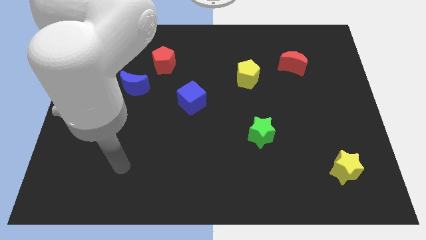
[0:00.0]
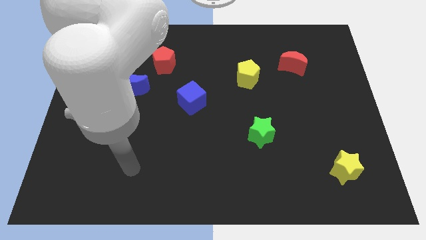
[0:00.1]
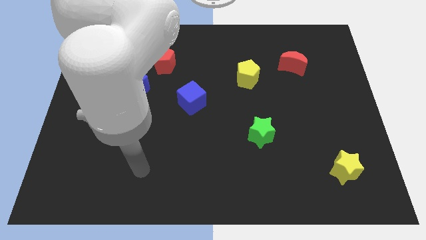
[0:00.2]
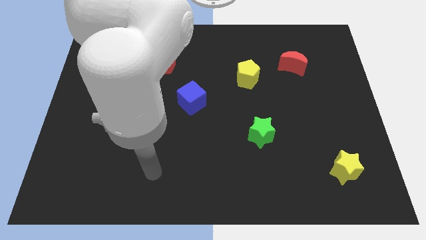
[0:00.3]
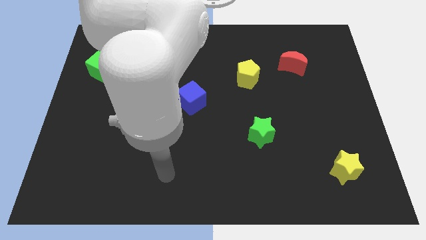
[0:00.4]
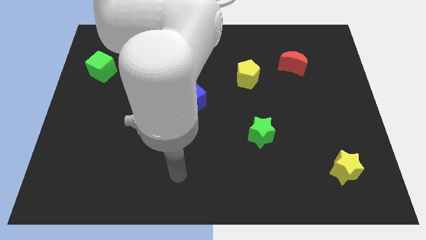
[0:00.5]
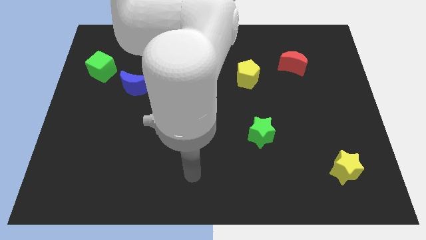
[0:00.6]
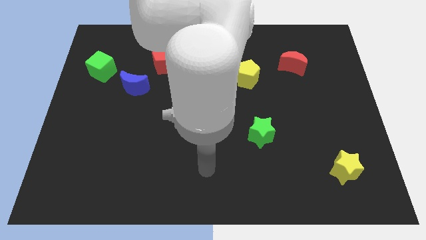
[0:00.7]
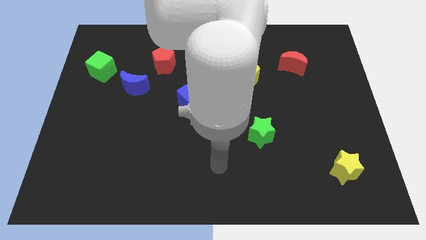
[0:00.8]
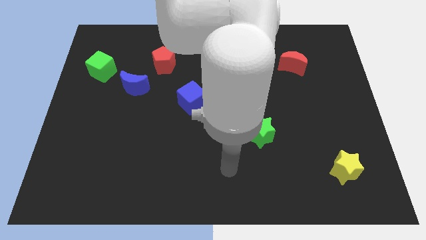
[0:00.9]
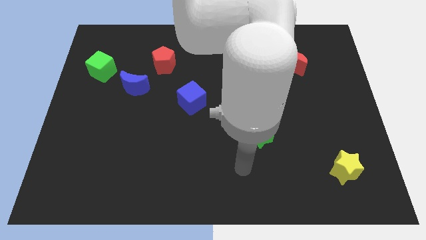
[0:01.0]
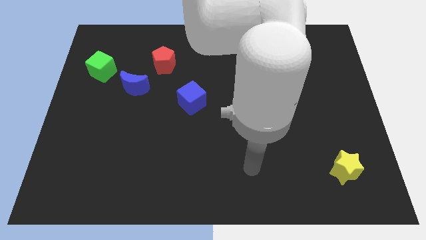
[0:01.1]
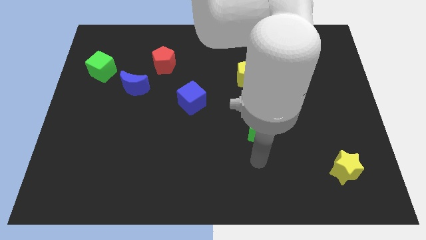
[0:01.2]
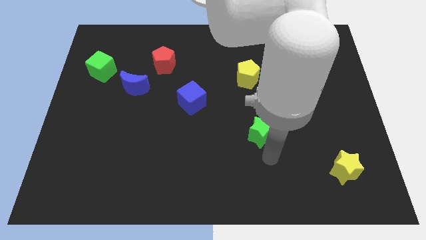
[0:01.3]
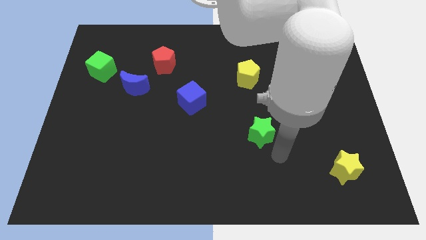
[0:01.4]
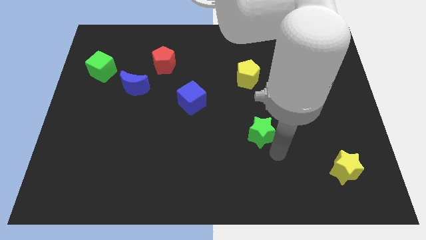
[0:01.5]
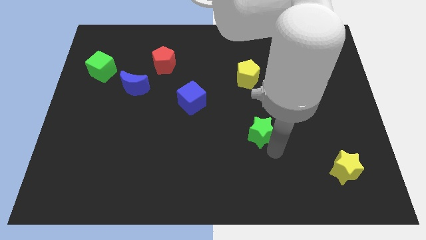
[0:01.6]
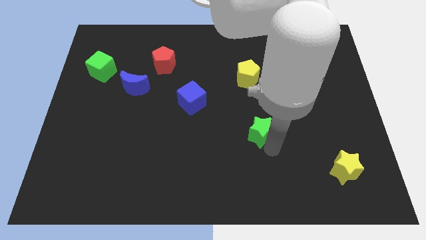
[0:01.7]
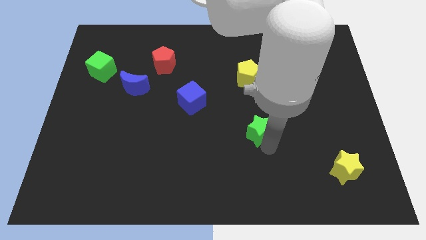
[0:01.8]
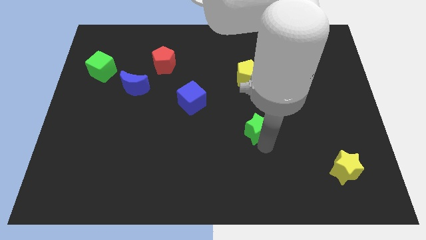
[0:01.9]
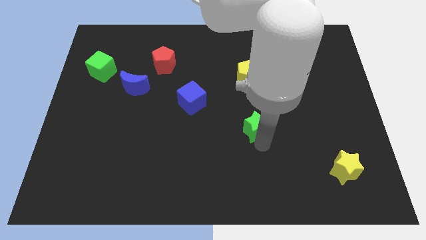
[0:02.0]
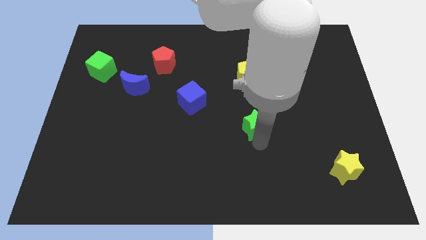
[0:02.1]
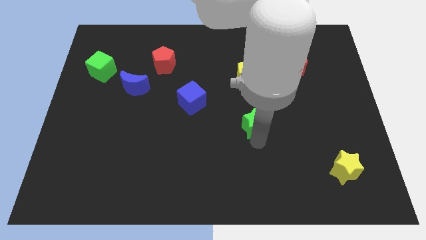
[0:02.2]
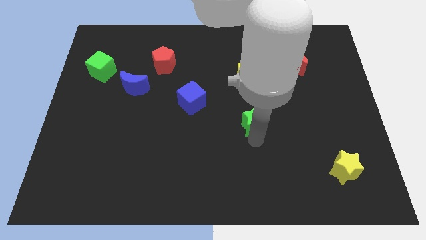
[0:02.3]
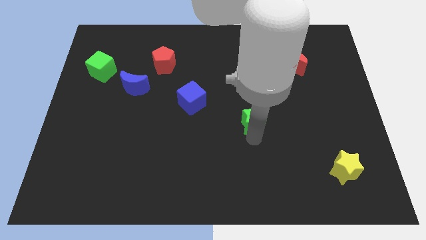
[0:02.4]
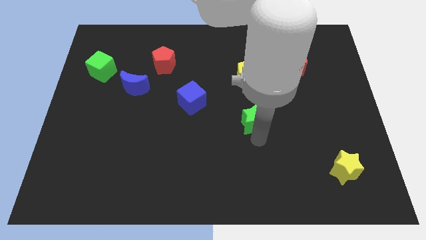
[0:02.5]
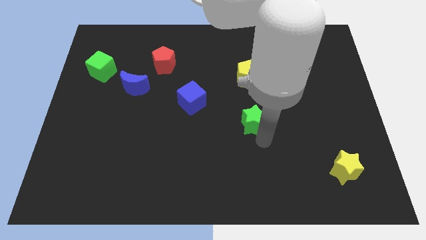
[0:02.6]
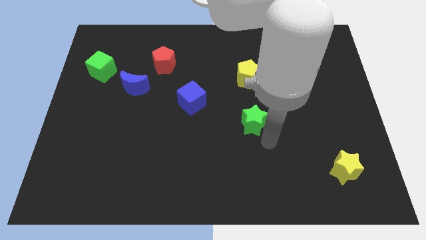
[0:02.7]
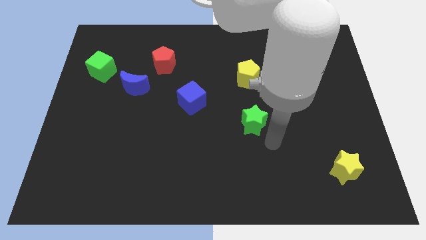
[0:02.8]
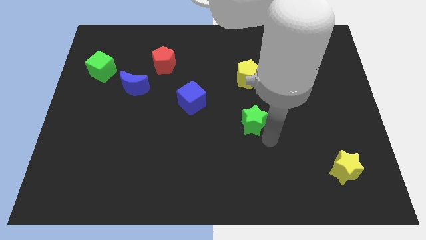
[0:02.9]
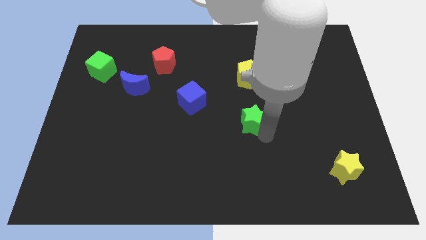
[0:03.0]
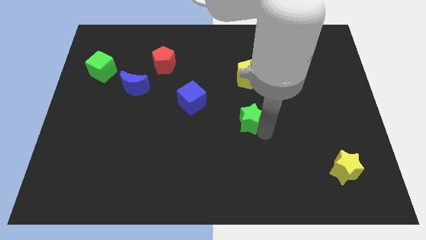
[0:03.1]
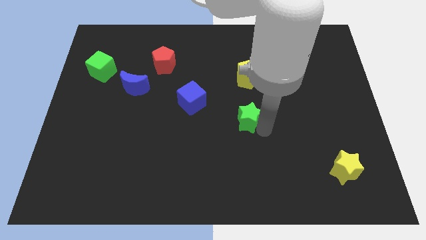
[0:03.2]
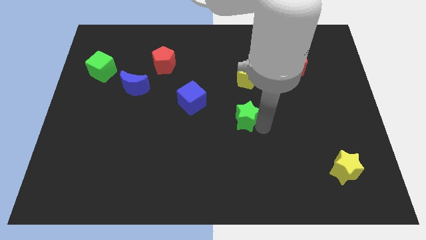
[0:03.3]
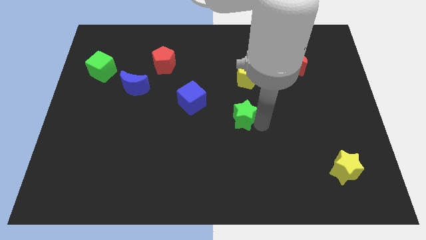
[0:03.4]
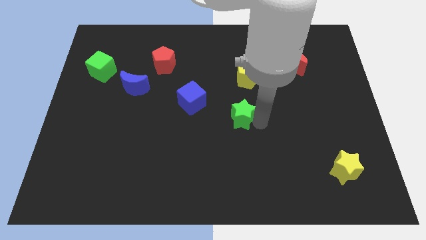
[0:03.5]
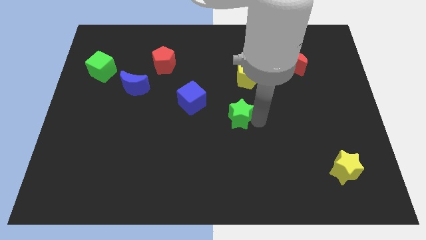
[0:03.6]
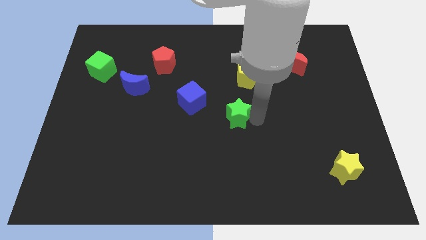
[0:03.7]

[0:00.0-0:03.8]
push the green star up and then to the left a little bit

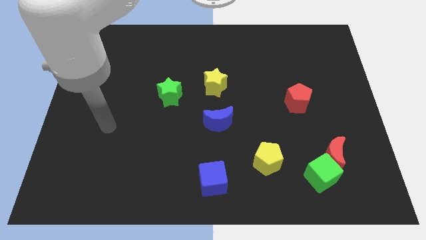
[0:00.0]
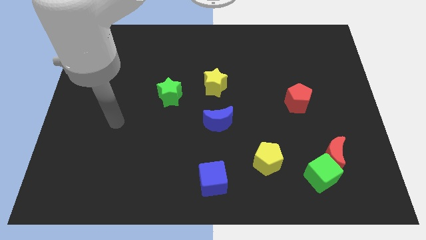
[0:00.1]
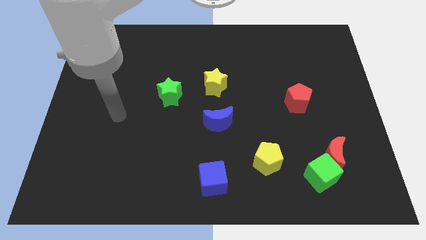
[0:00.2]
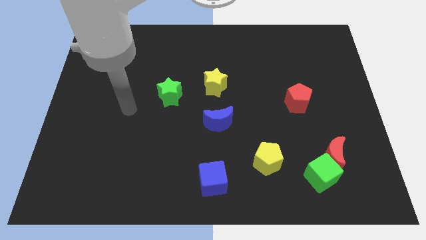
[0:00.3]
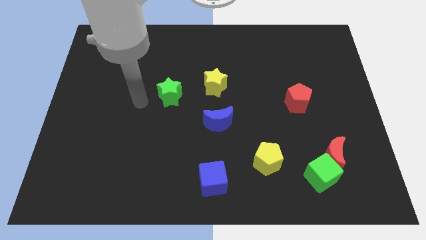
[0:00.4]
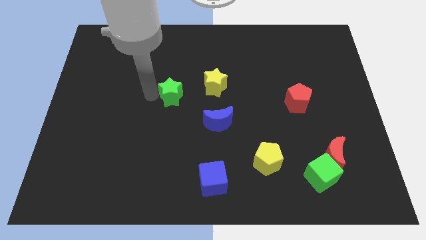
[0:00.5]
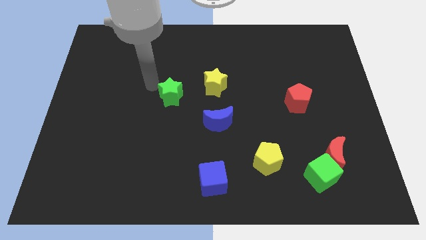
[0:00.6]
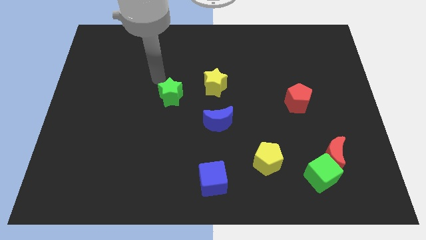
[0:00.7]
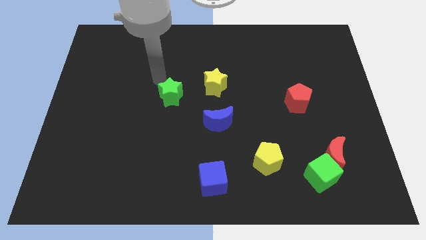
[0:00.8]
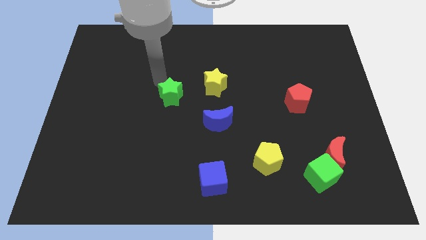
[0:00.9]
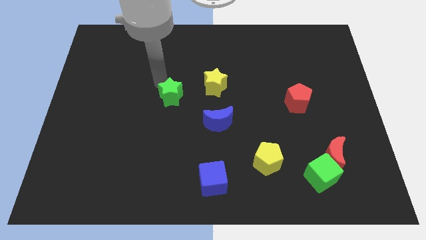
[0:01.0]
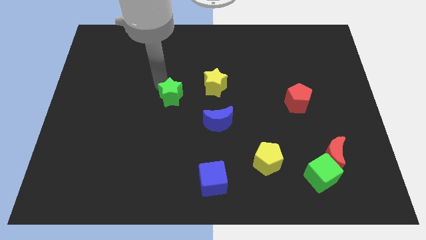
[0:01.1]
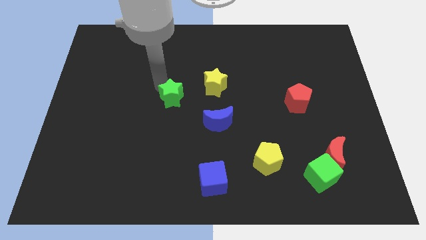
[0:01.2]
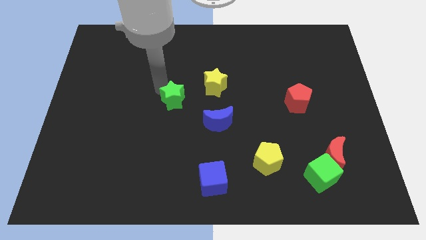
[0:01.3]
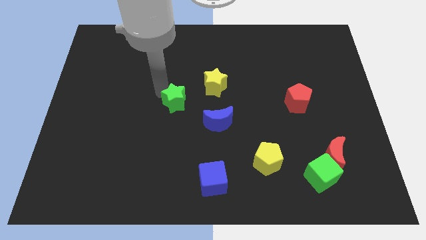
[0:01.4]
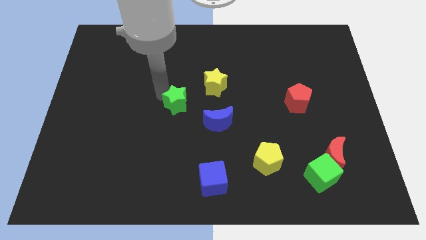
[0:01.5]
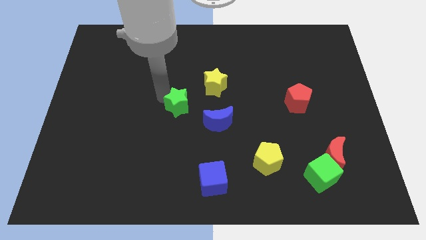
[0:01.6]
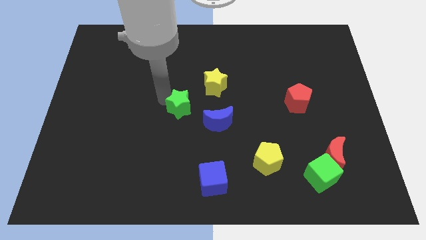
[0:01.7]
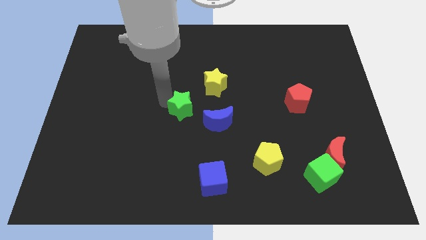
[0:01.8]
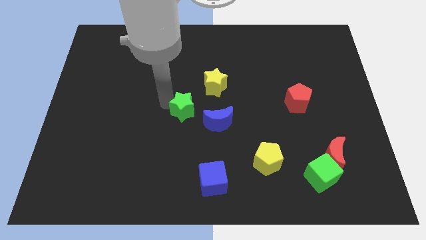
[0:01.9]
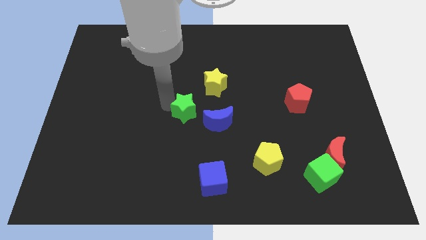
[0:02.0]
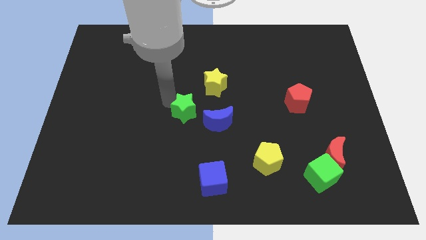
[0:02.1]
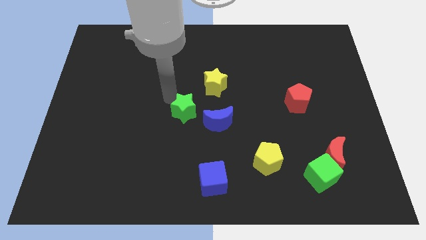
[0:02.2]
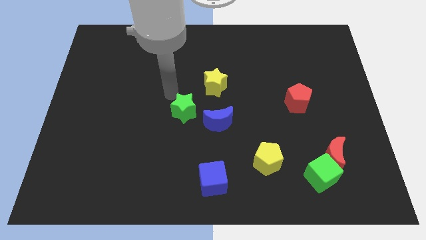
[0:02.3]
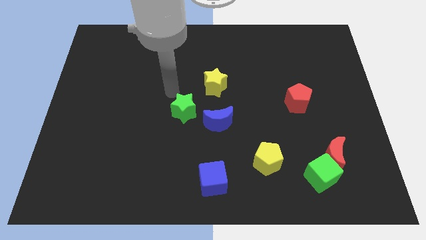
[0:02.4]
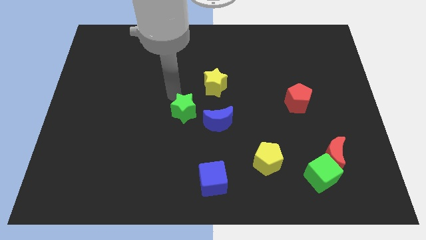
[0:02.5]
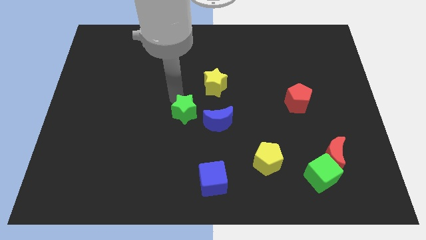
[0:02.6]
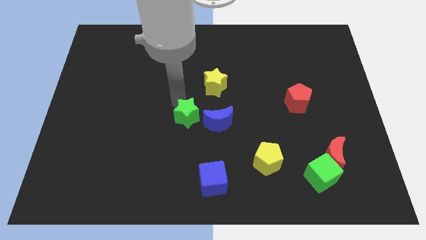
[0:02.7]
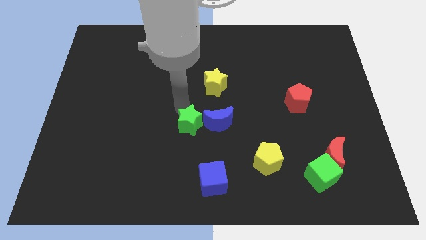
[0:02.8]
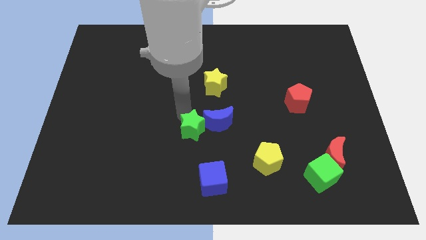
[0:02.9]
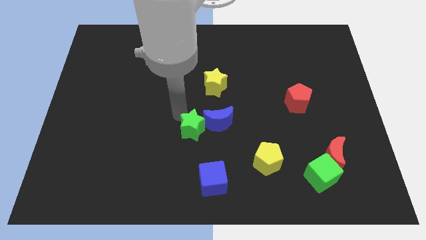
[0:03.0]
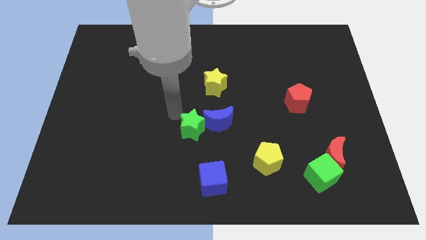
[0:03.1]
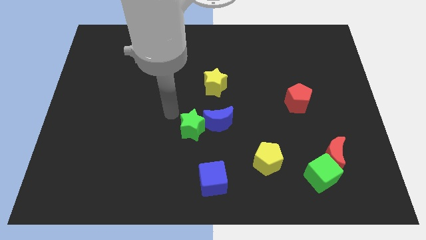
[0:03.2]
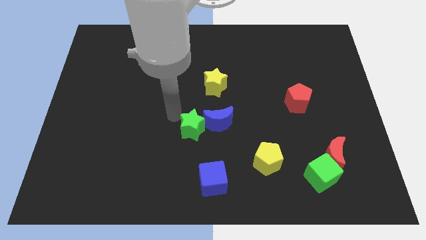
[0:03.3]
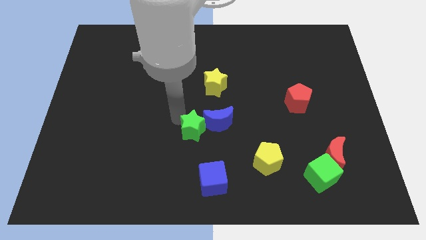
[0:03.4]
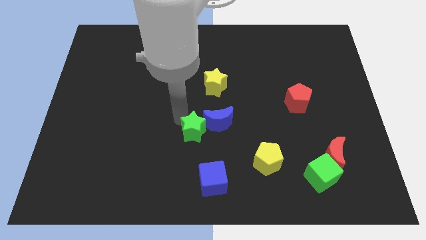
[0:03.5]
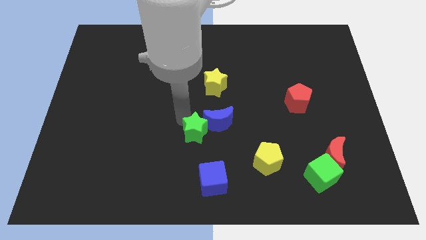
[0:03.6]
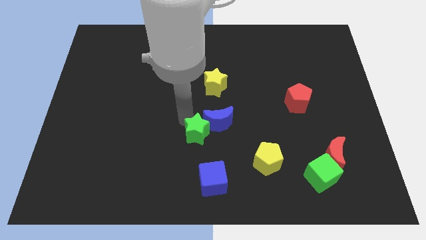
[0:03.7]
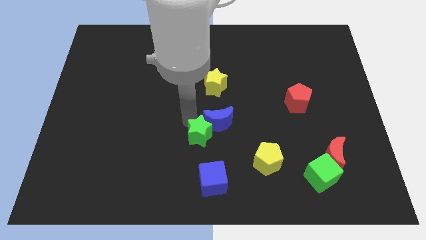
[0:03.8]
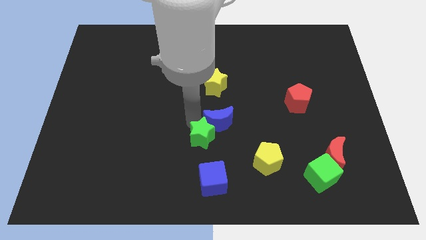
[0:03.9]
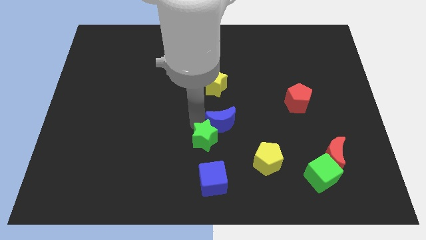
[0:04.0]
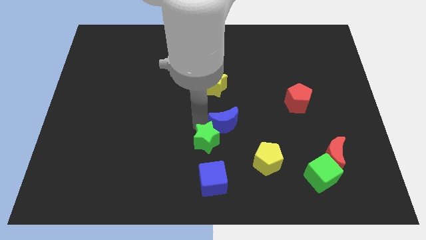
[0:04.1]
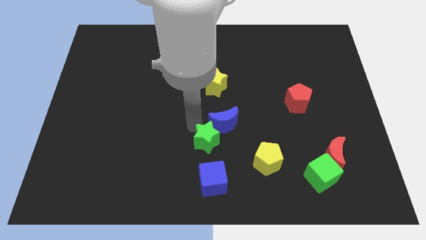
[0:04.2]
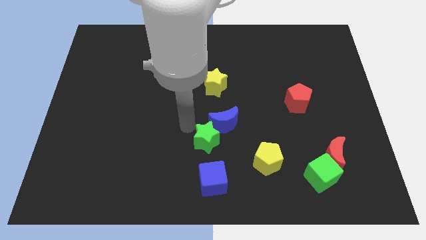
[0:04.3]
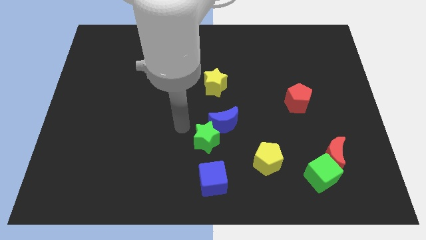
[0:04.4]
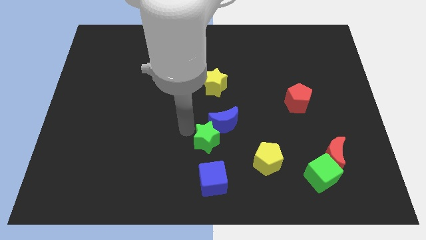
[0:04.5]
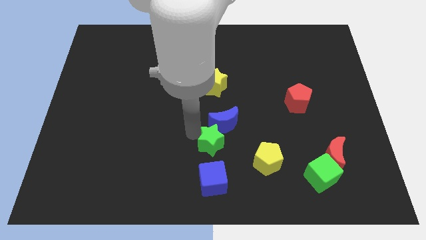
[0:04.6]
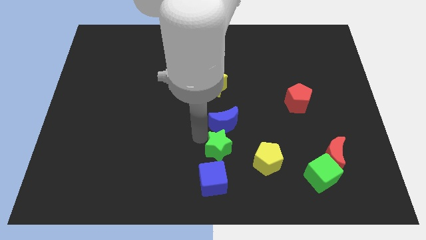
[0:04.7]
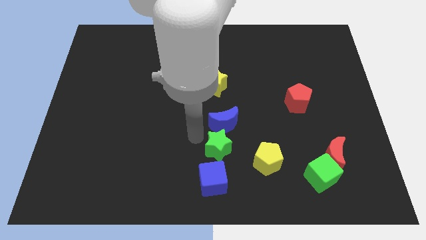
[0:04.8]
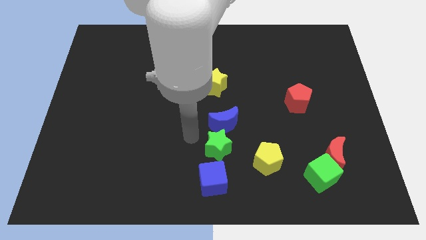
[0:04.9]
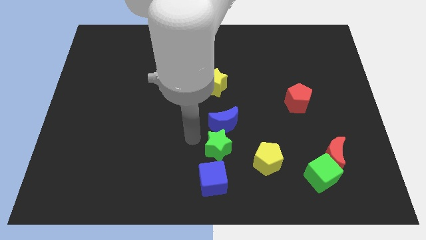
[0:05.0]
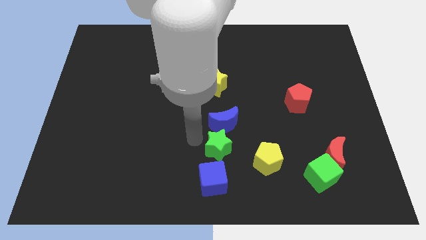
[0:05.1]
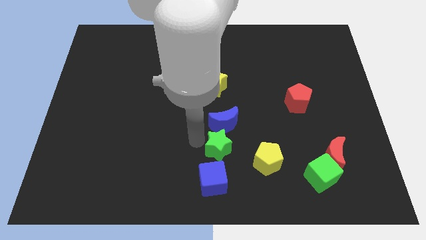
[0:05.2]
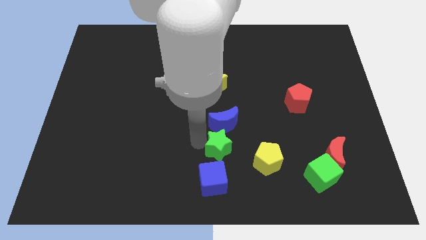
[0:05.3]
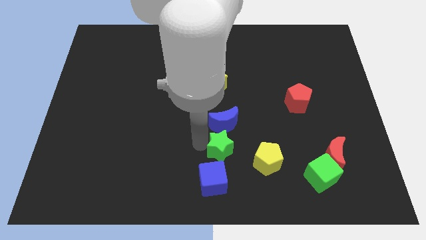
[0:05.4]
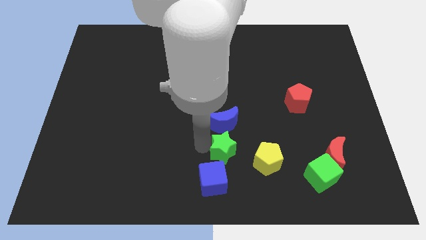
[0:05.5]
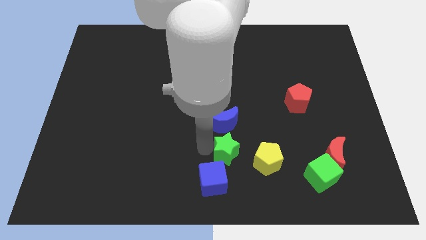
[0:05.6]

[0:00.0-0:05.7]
slide the green star down and then right
